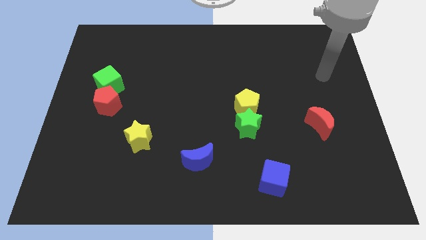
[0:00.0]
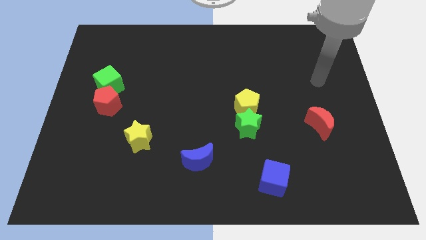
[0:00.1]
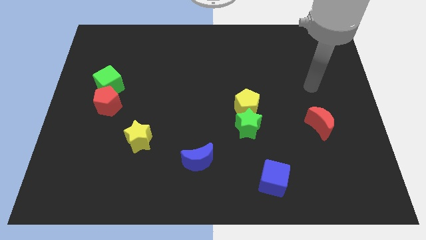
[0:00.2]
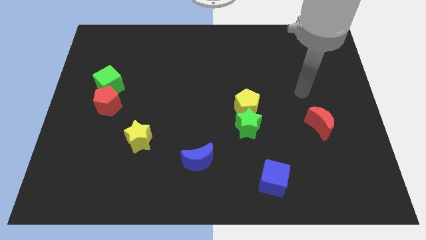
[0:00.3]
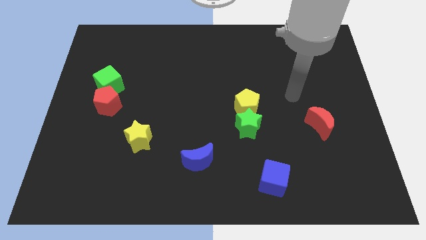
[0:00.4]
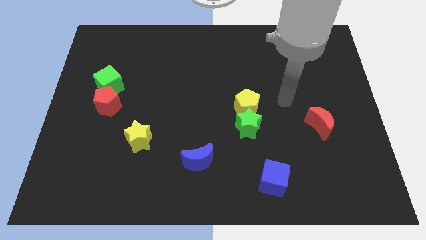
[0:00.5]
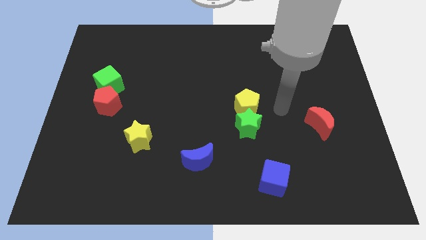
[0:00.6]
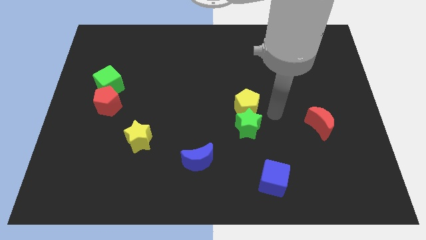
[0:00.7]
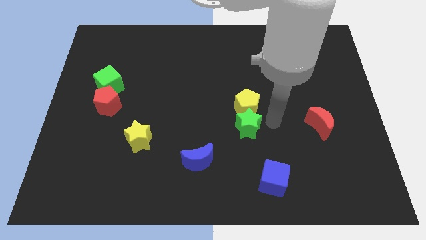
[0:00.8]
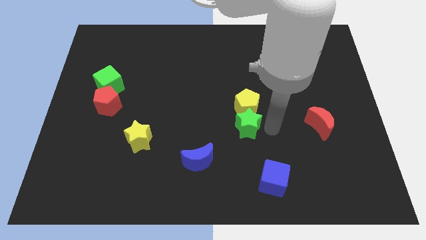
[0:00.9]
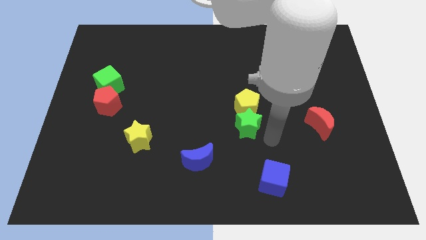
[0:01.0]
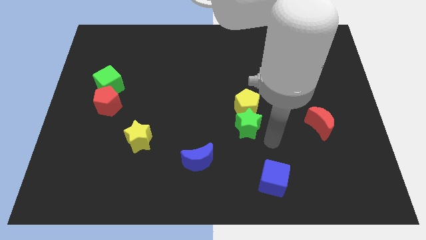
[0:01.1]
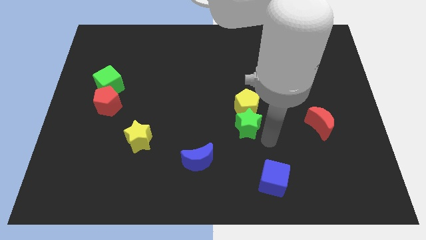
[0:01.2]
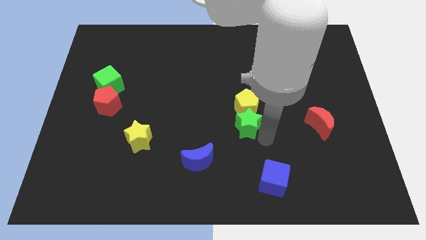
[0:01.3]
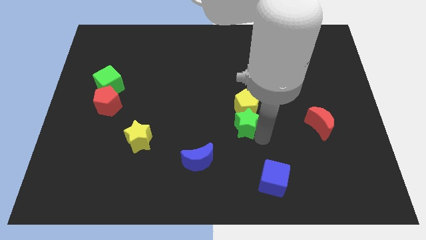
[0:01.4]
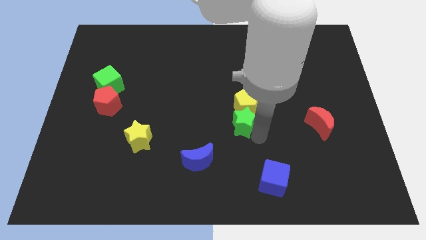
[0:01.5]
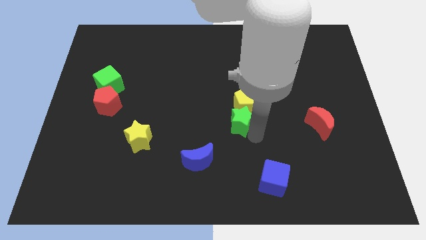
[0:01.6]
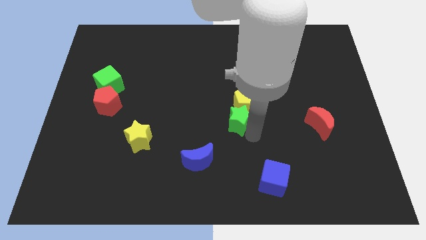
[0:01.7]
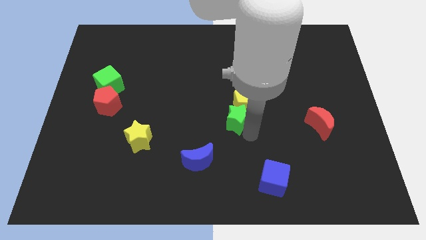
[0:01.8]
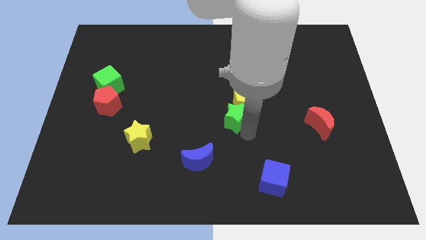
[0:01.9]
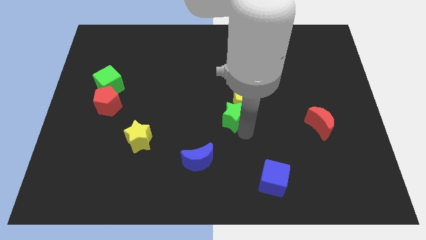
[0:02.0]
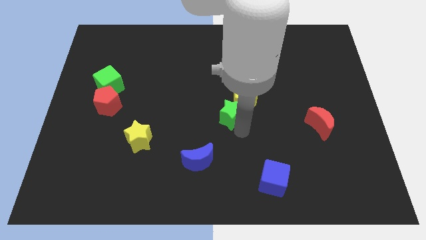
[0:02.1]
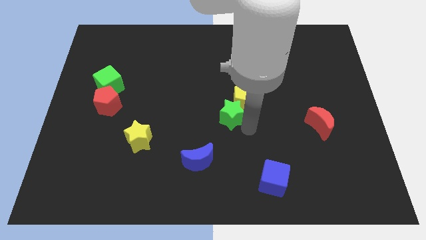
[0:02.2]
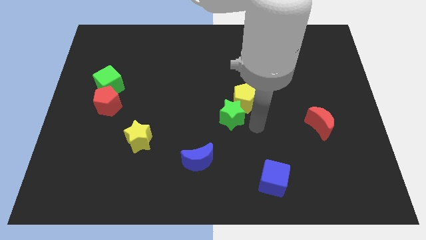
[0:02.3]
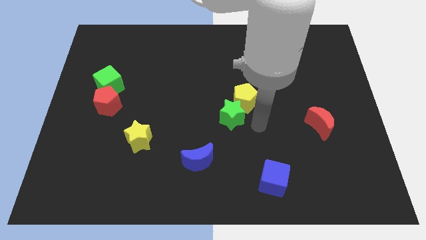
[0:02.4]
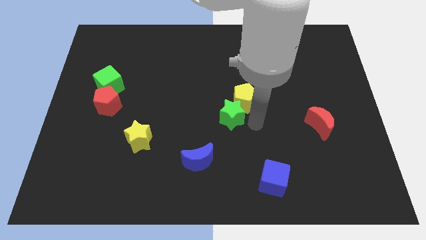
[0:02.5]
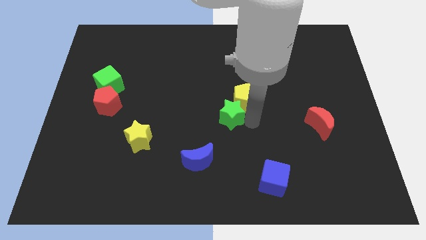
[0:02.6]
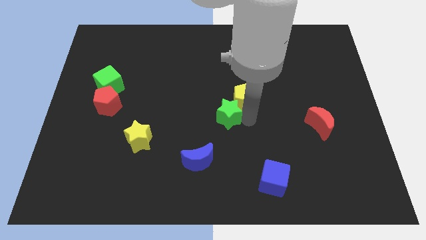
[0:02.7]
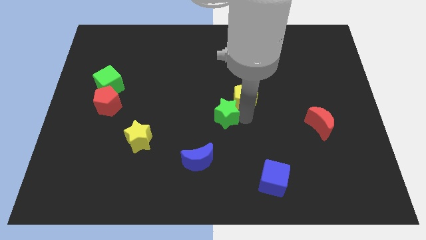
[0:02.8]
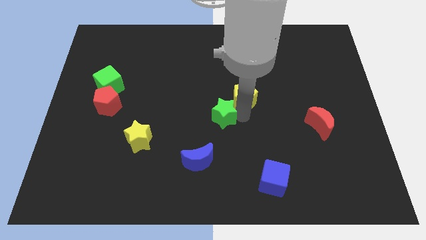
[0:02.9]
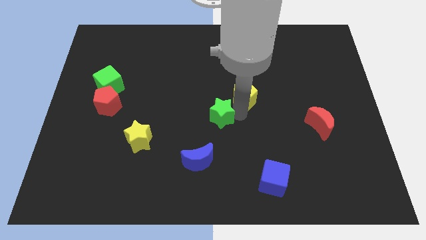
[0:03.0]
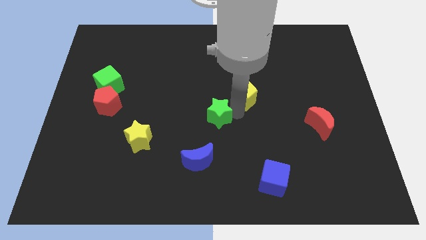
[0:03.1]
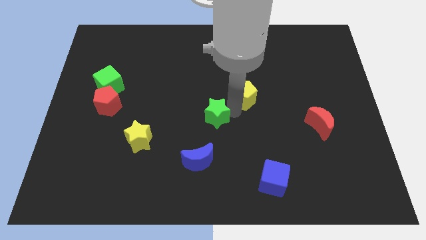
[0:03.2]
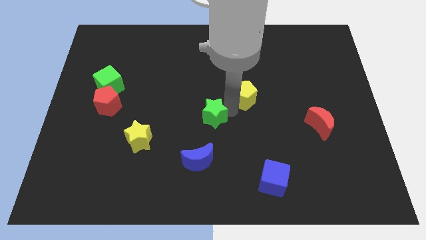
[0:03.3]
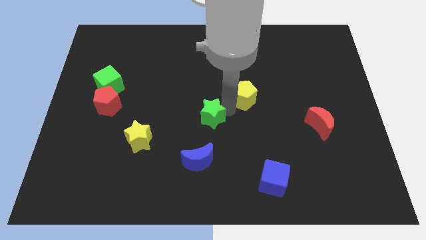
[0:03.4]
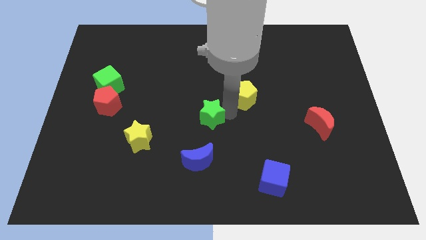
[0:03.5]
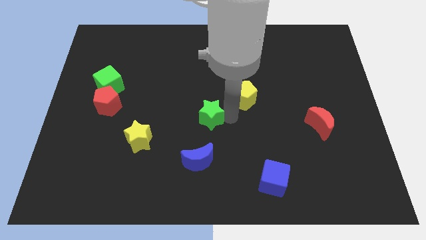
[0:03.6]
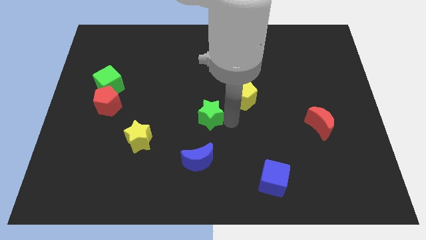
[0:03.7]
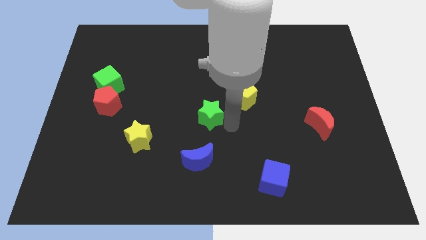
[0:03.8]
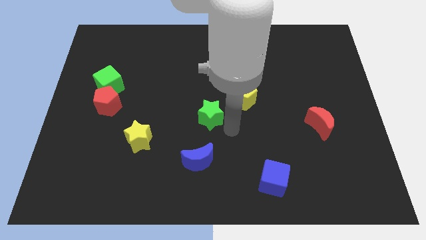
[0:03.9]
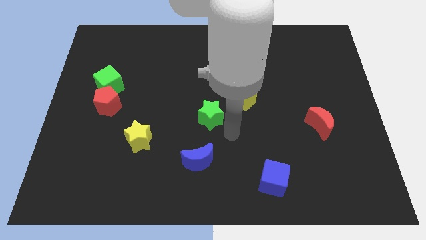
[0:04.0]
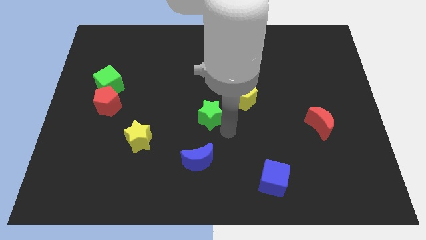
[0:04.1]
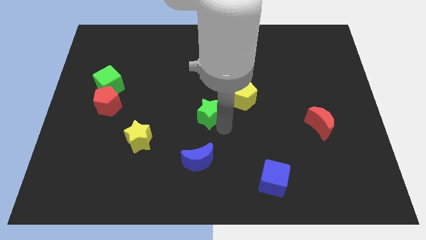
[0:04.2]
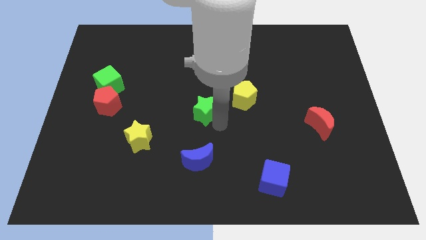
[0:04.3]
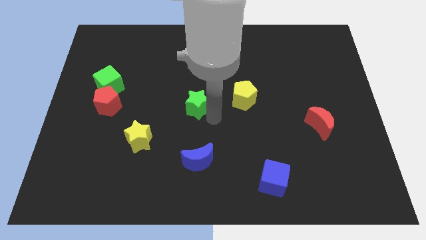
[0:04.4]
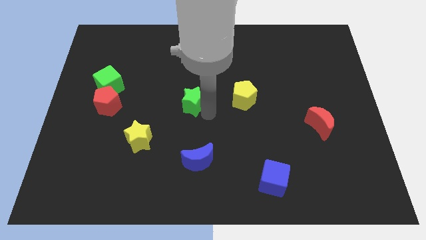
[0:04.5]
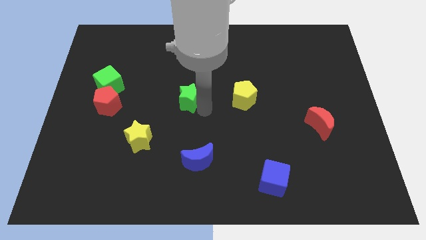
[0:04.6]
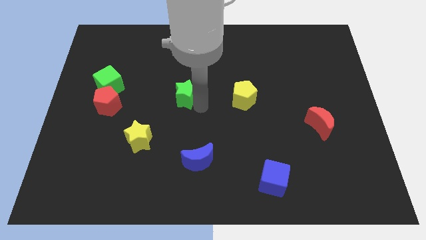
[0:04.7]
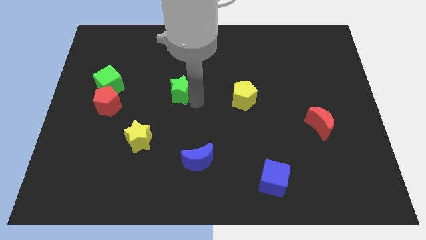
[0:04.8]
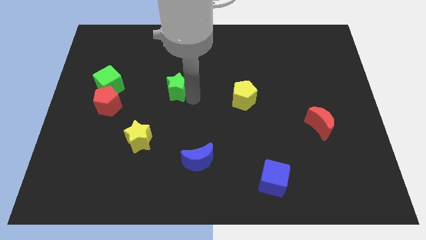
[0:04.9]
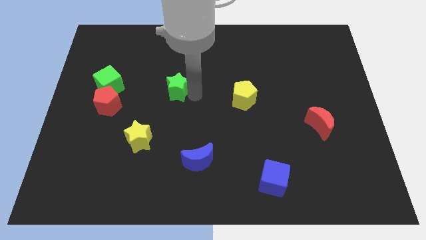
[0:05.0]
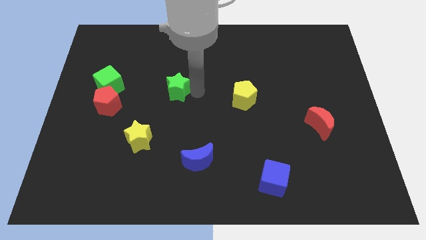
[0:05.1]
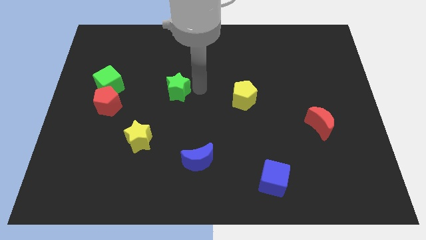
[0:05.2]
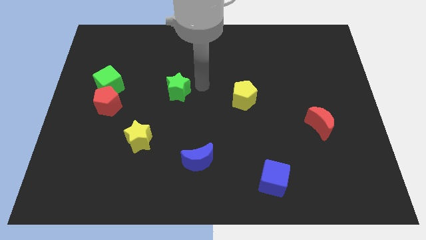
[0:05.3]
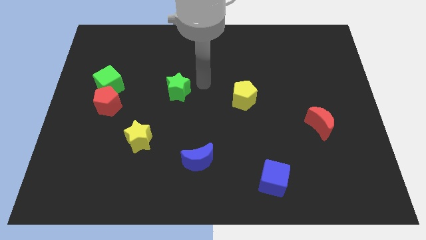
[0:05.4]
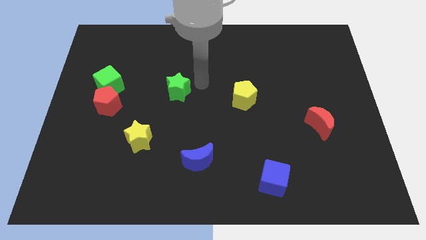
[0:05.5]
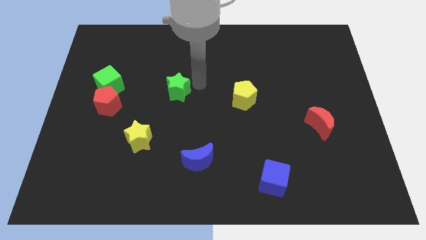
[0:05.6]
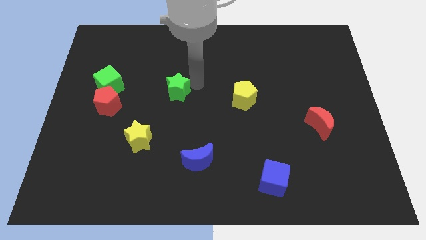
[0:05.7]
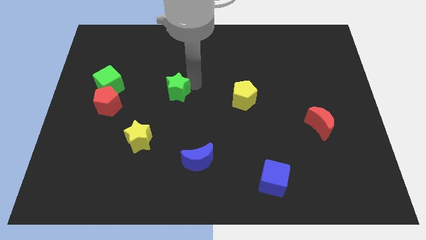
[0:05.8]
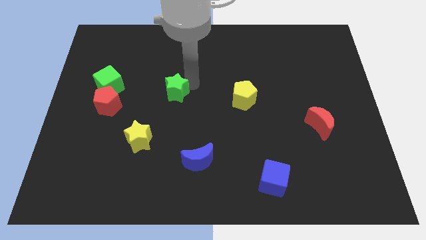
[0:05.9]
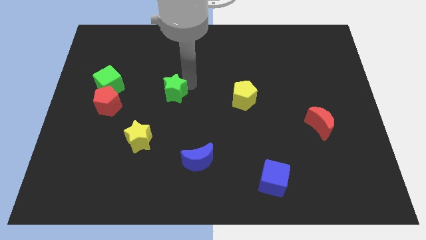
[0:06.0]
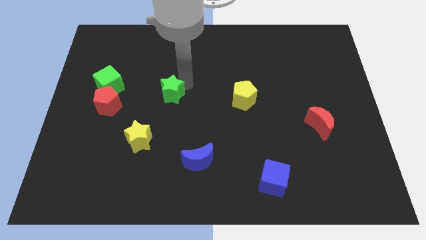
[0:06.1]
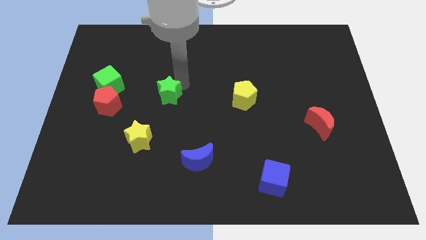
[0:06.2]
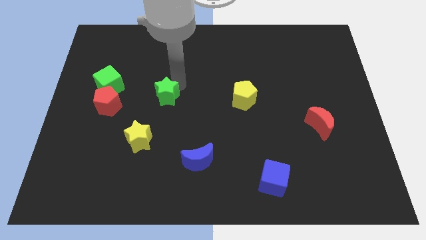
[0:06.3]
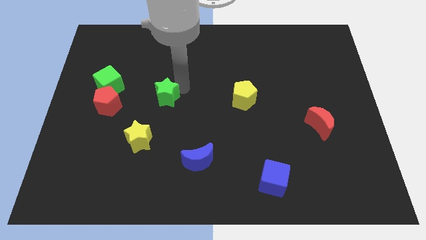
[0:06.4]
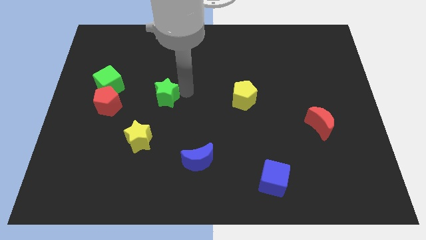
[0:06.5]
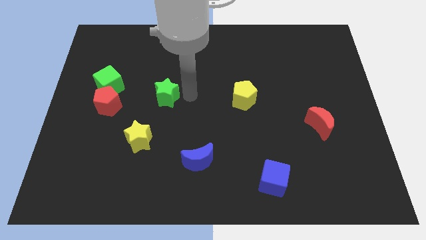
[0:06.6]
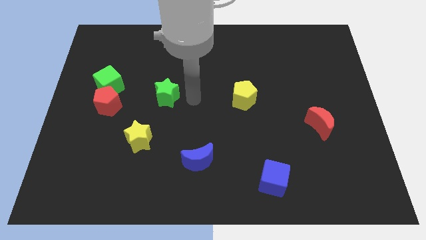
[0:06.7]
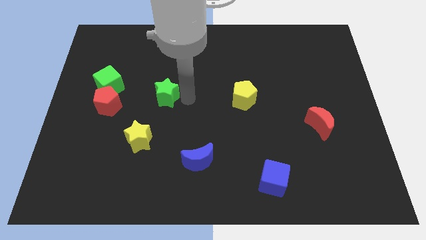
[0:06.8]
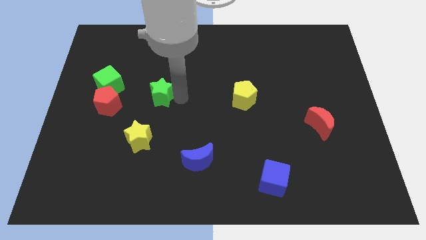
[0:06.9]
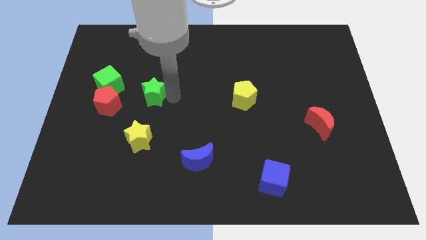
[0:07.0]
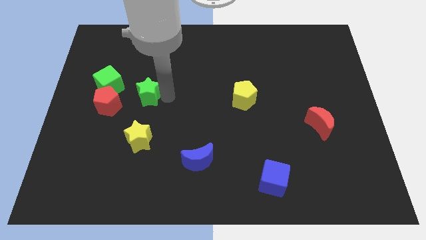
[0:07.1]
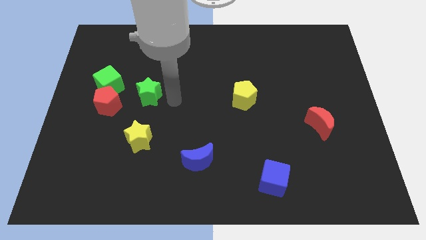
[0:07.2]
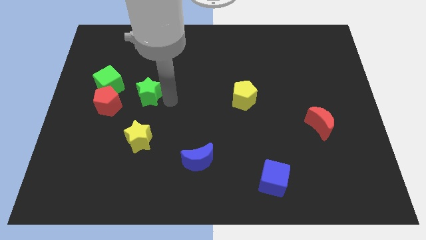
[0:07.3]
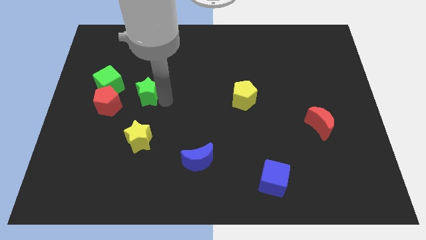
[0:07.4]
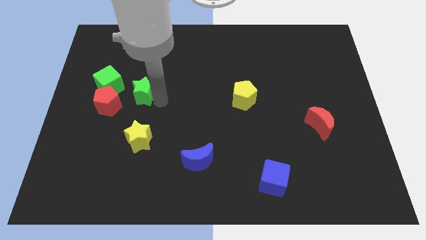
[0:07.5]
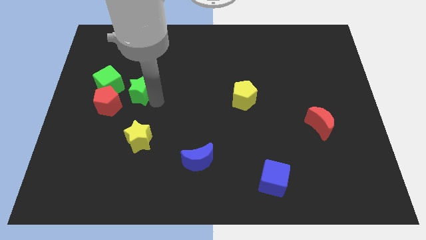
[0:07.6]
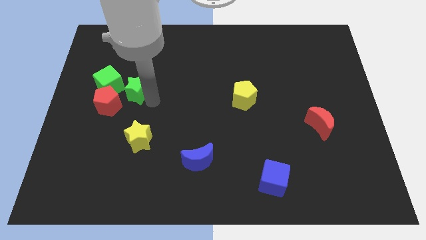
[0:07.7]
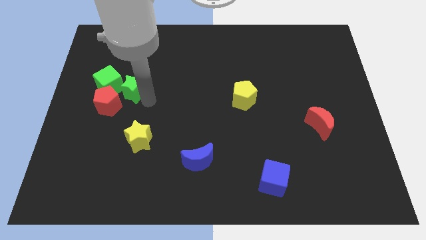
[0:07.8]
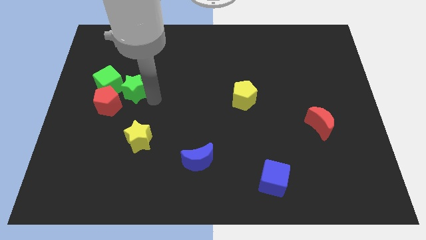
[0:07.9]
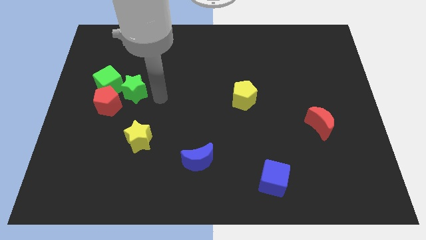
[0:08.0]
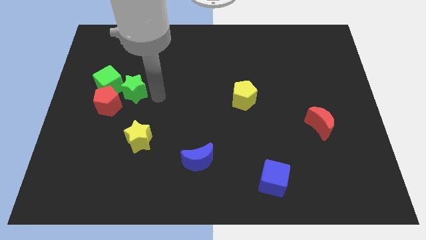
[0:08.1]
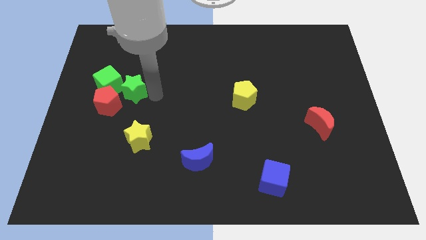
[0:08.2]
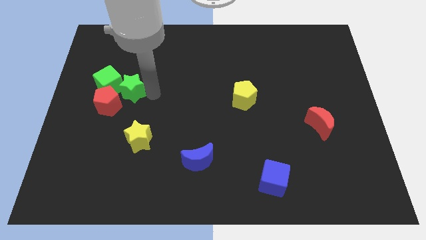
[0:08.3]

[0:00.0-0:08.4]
slide the green star close to the green cube
